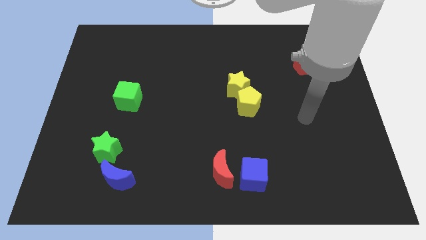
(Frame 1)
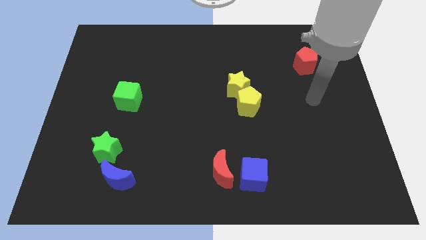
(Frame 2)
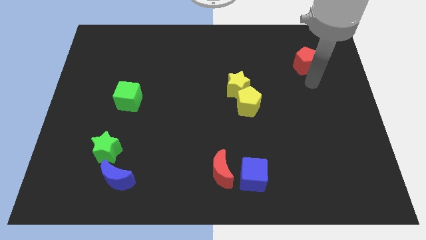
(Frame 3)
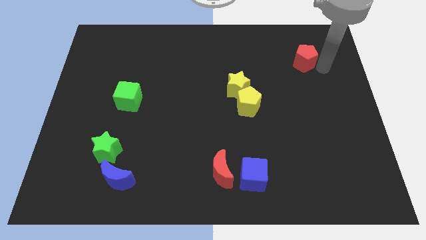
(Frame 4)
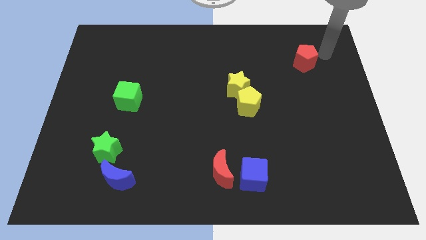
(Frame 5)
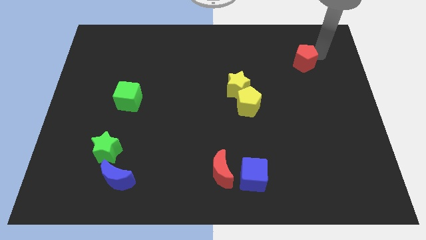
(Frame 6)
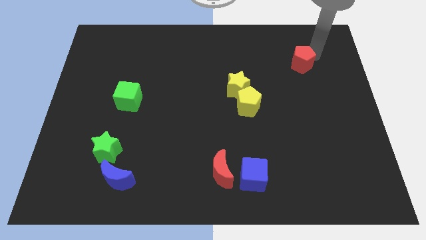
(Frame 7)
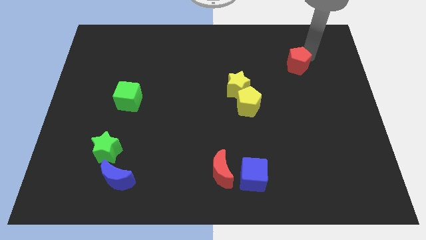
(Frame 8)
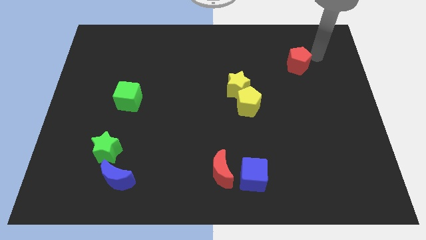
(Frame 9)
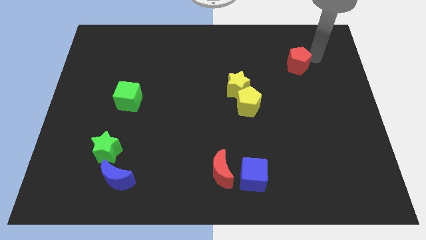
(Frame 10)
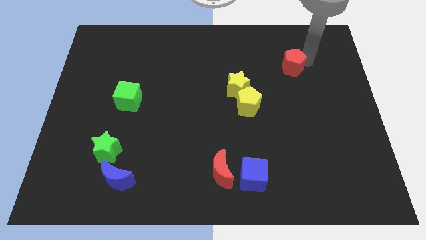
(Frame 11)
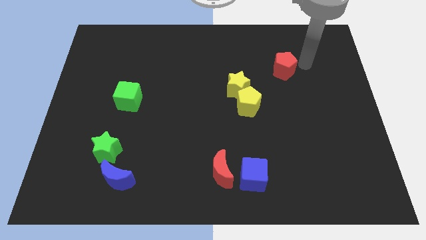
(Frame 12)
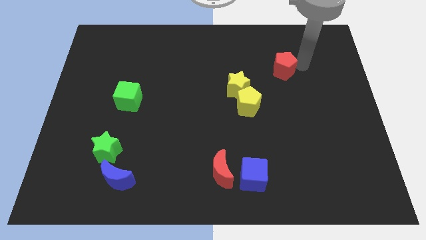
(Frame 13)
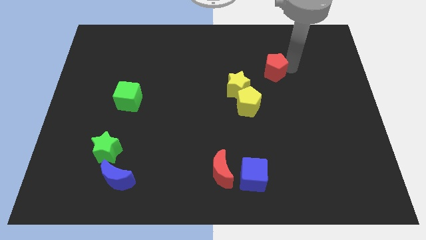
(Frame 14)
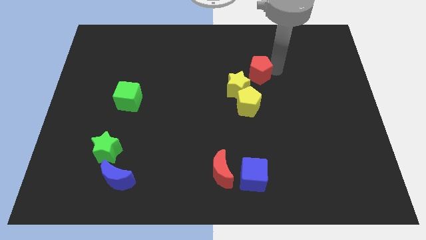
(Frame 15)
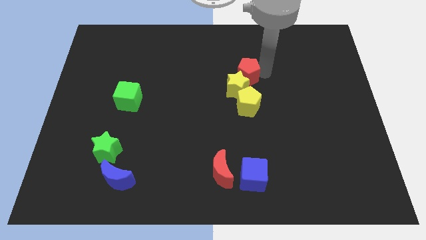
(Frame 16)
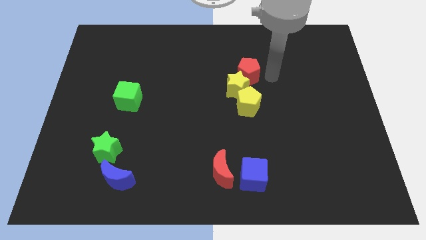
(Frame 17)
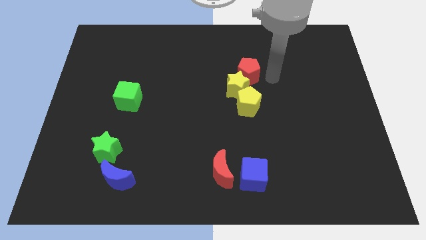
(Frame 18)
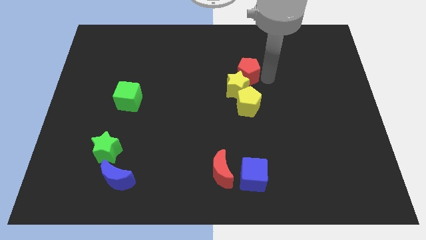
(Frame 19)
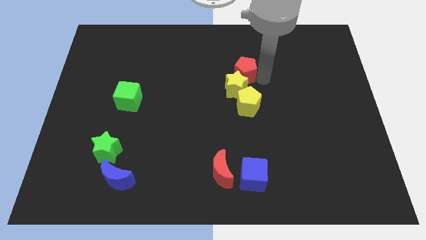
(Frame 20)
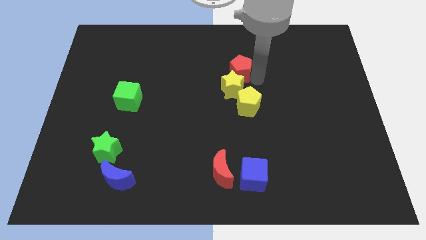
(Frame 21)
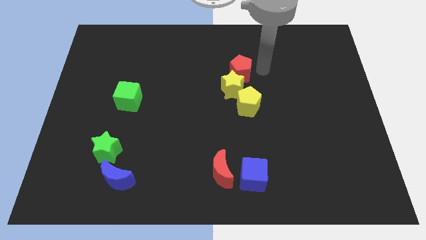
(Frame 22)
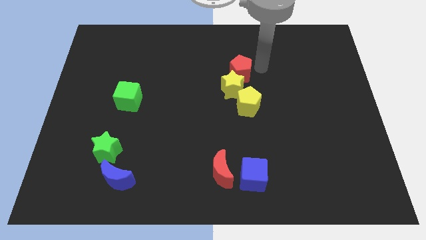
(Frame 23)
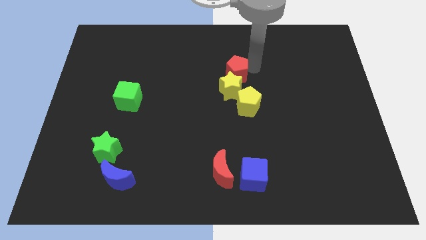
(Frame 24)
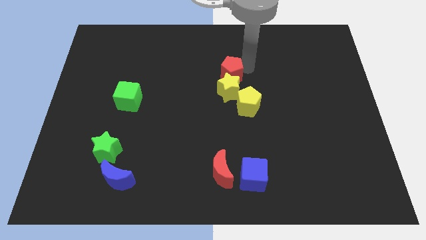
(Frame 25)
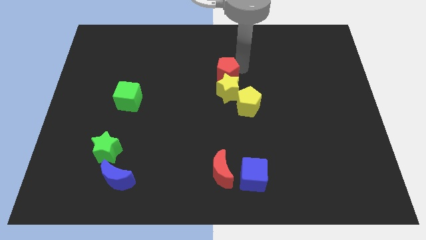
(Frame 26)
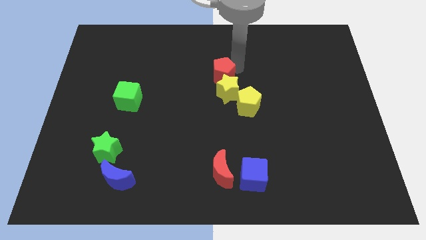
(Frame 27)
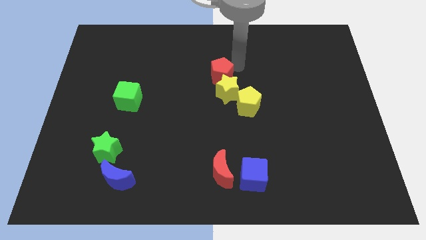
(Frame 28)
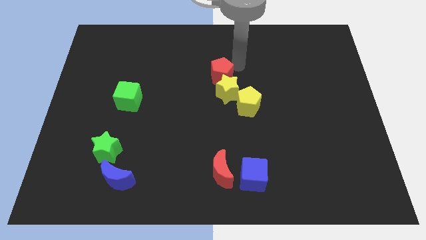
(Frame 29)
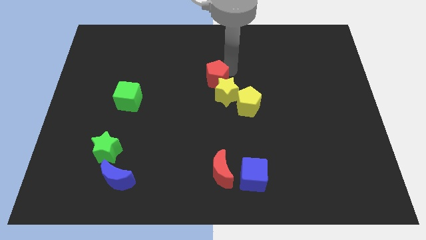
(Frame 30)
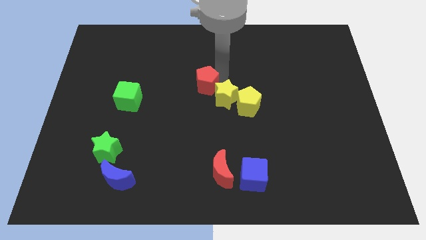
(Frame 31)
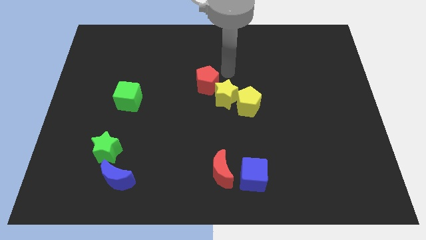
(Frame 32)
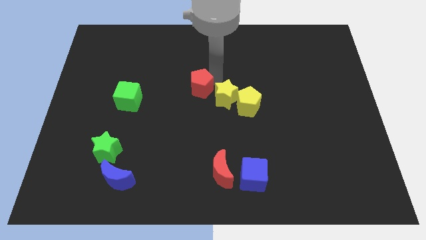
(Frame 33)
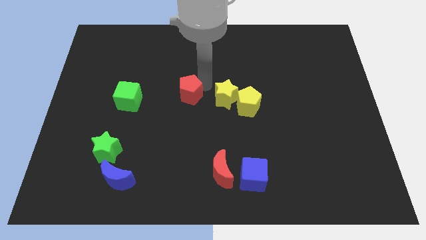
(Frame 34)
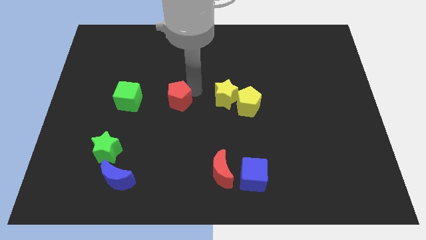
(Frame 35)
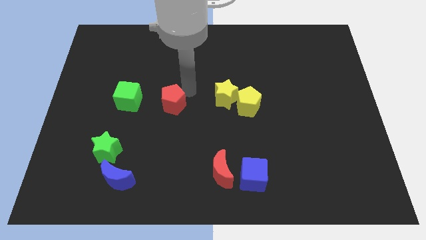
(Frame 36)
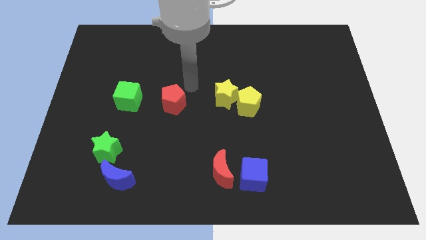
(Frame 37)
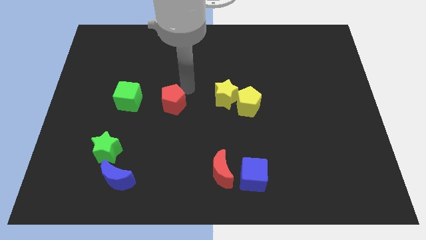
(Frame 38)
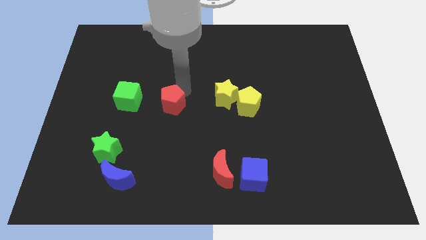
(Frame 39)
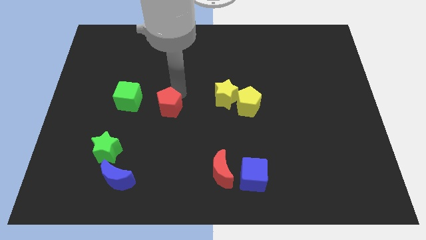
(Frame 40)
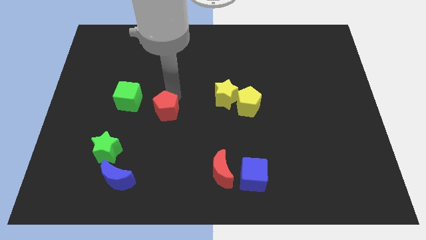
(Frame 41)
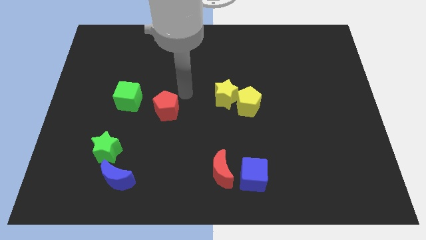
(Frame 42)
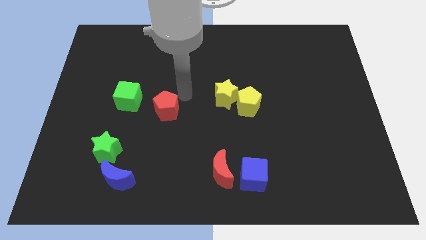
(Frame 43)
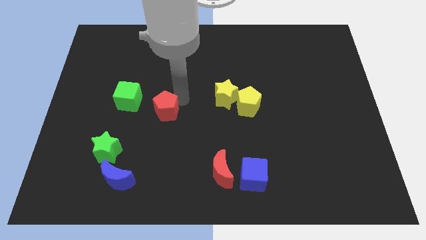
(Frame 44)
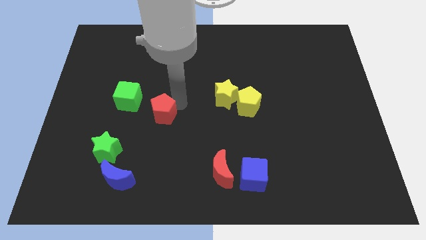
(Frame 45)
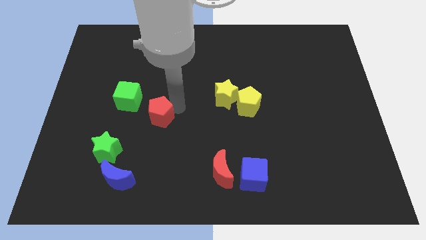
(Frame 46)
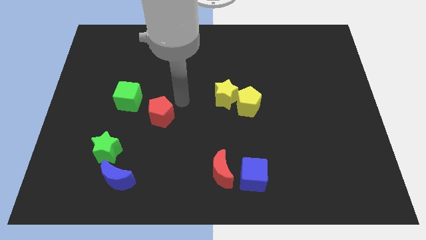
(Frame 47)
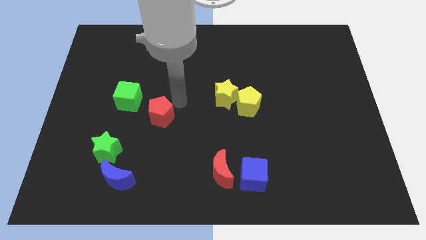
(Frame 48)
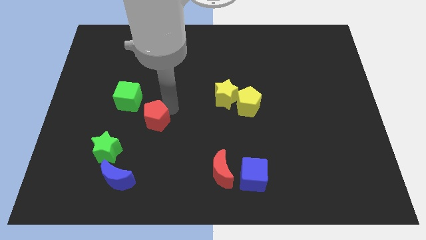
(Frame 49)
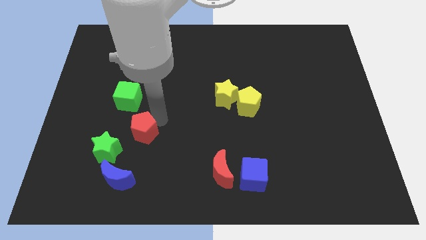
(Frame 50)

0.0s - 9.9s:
push the red pentagon below the green cube

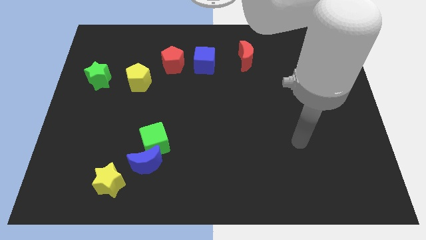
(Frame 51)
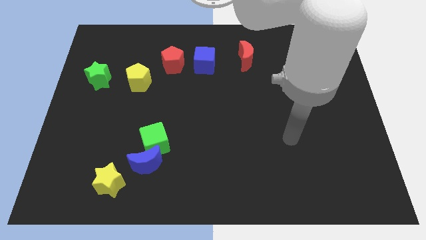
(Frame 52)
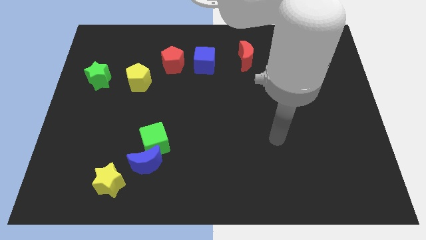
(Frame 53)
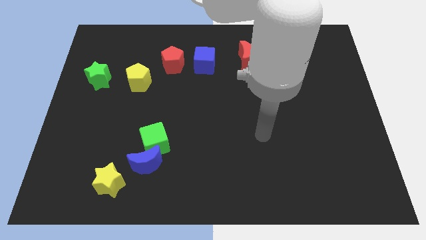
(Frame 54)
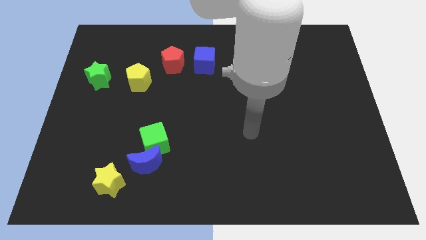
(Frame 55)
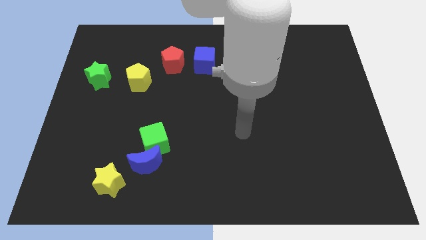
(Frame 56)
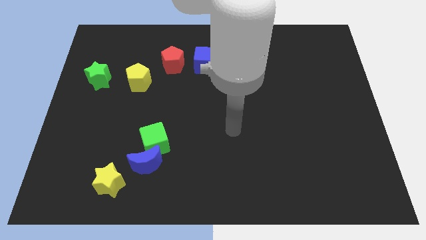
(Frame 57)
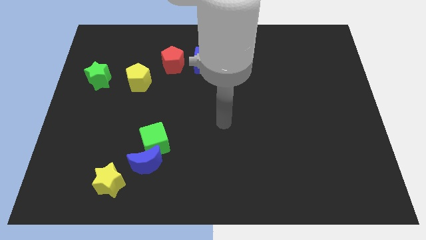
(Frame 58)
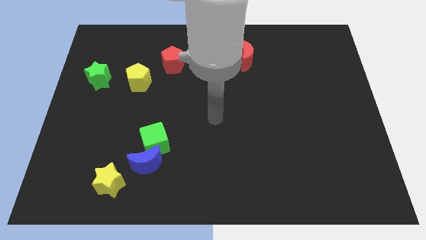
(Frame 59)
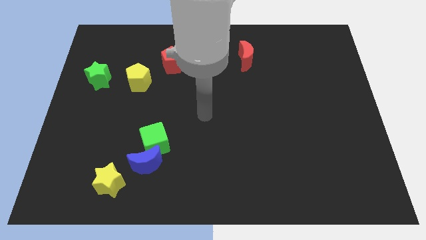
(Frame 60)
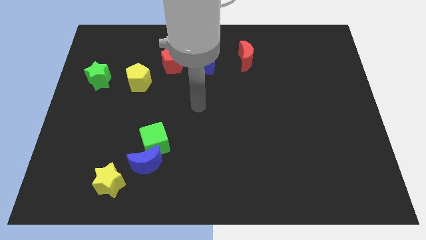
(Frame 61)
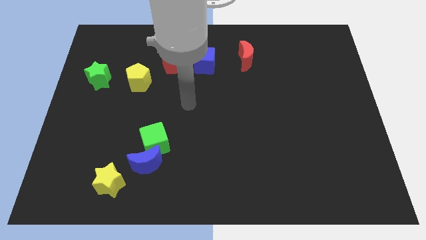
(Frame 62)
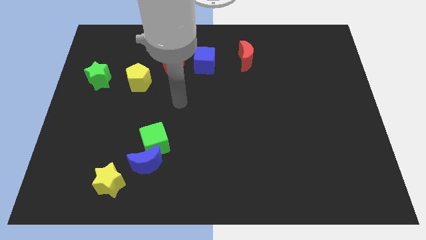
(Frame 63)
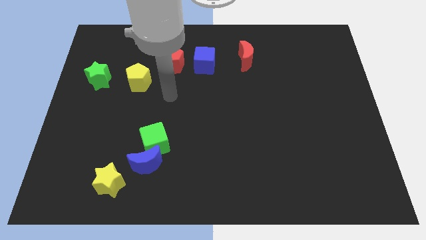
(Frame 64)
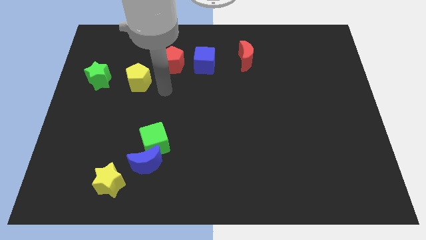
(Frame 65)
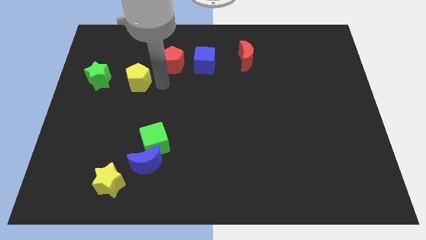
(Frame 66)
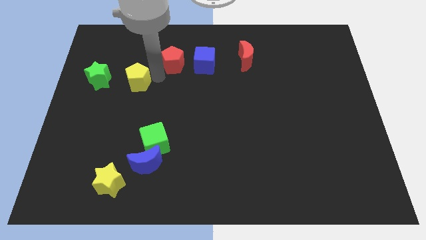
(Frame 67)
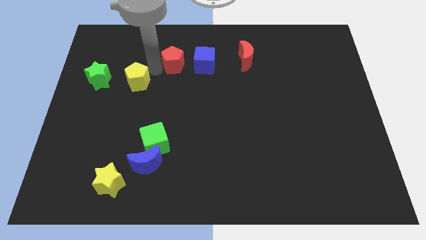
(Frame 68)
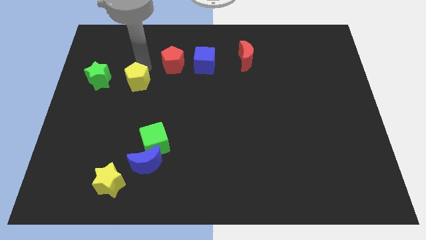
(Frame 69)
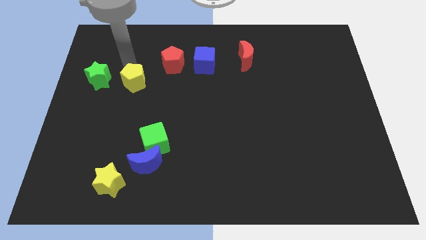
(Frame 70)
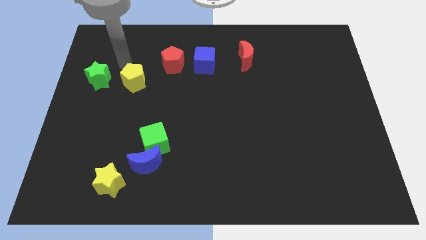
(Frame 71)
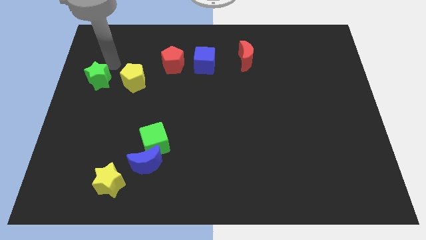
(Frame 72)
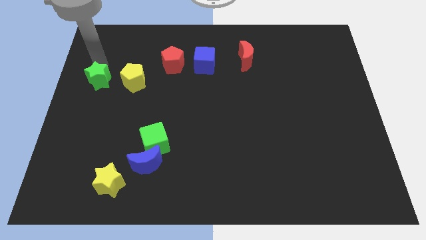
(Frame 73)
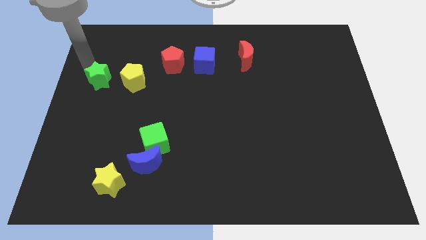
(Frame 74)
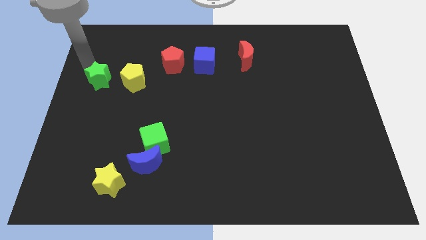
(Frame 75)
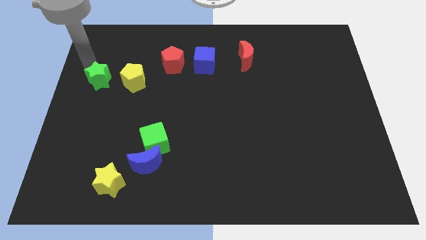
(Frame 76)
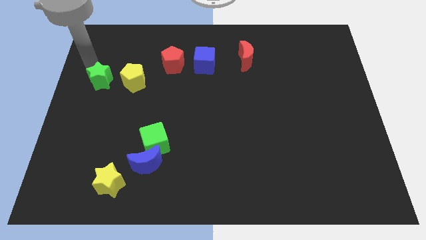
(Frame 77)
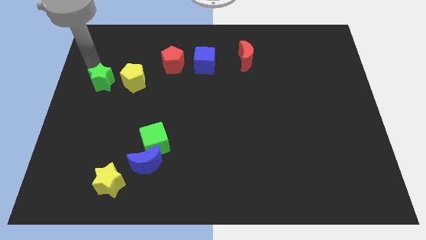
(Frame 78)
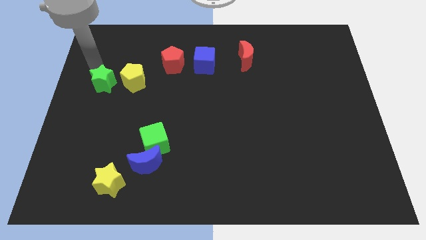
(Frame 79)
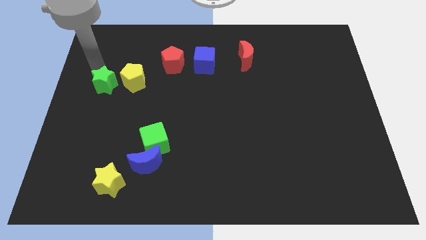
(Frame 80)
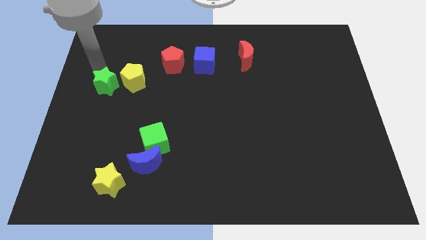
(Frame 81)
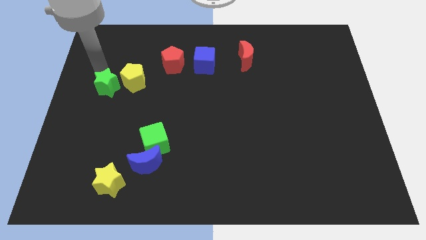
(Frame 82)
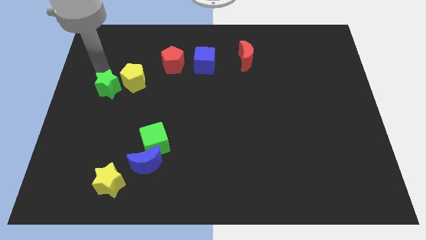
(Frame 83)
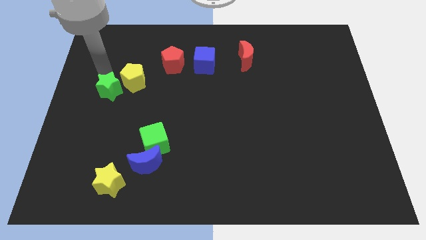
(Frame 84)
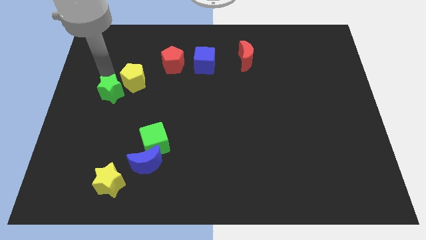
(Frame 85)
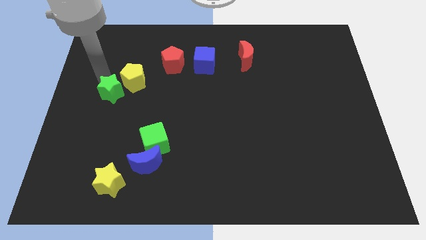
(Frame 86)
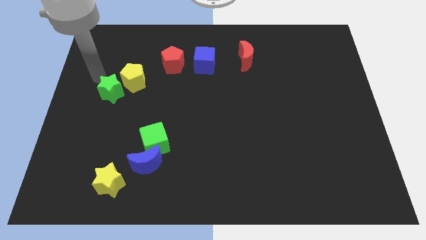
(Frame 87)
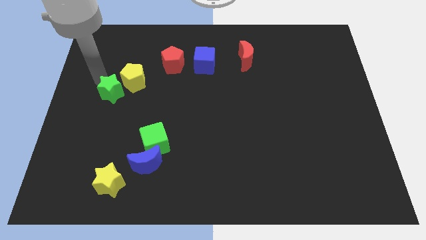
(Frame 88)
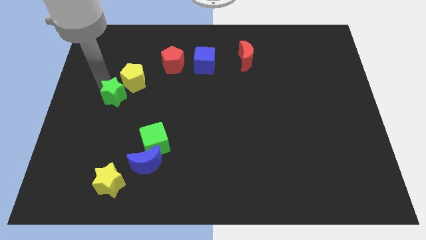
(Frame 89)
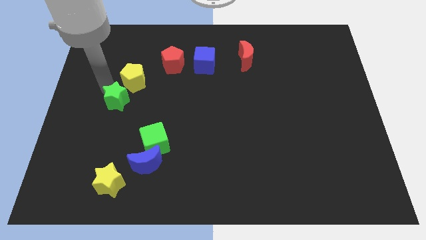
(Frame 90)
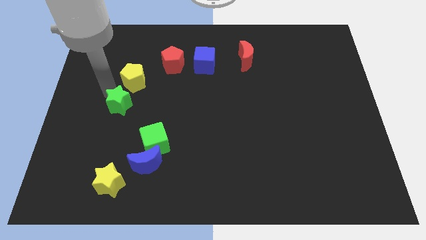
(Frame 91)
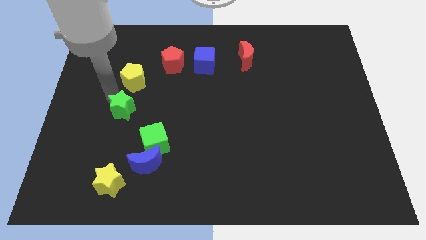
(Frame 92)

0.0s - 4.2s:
push the green star diagonally up and to the left of the green cube
